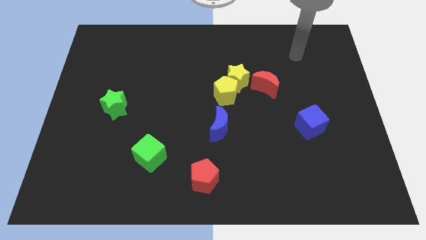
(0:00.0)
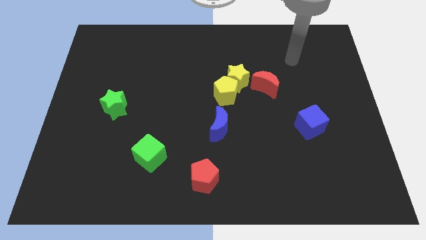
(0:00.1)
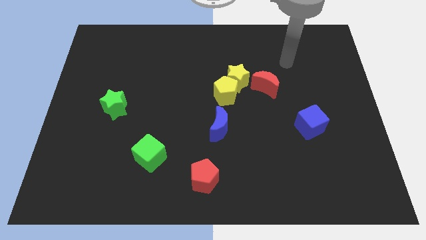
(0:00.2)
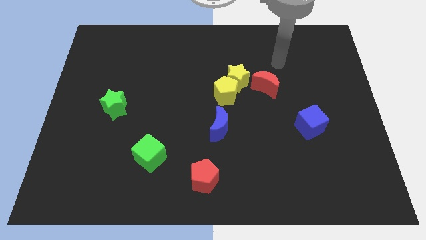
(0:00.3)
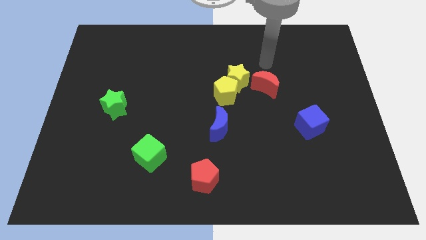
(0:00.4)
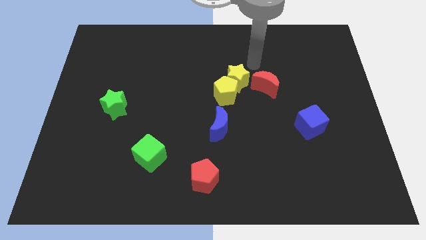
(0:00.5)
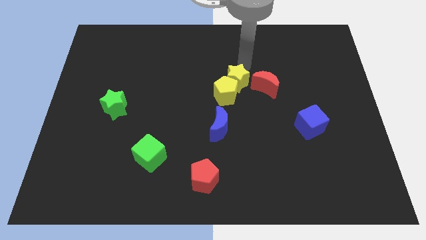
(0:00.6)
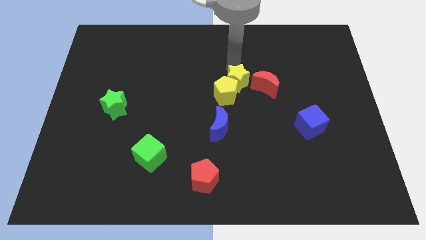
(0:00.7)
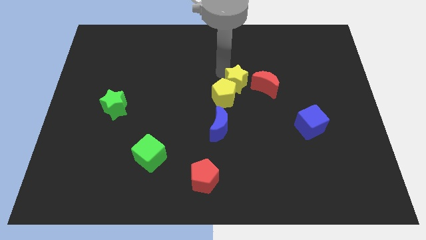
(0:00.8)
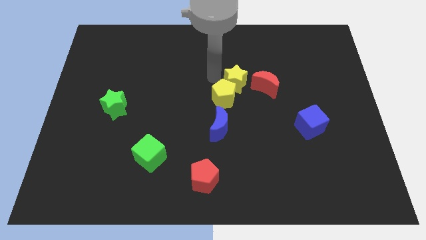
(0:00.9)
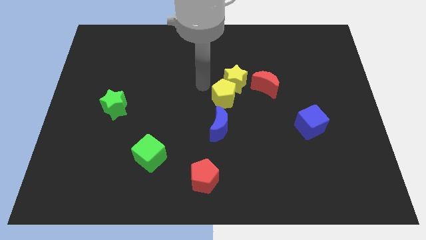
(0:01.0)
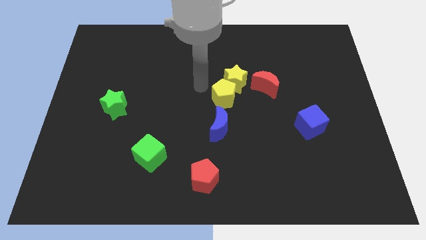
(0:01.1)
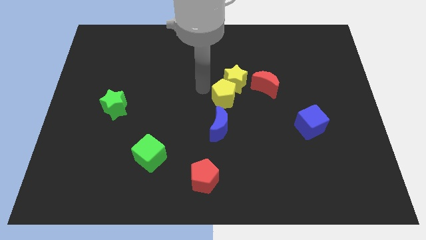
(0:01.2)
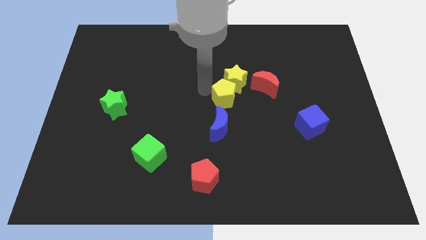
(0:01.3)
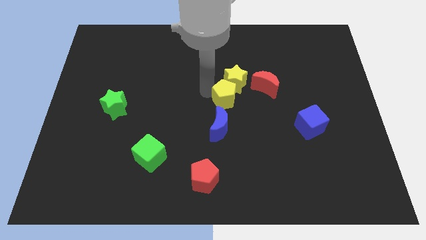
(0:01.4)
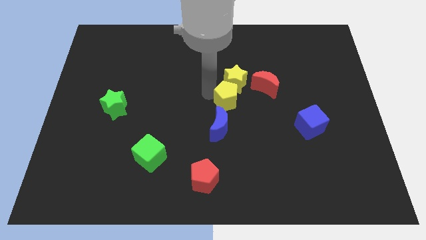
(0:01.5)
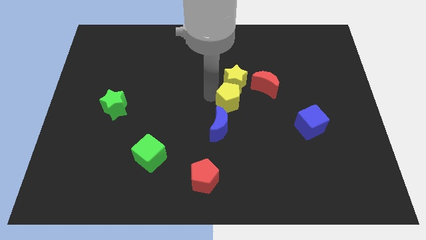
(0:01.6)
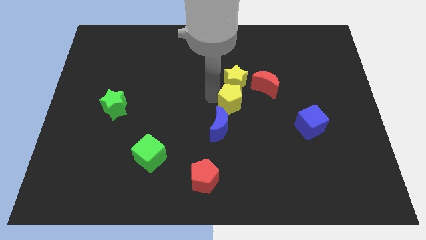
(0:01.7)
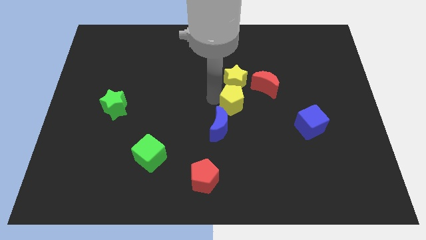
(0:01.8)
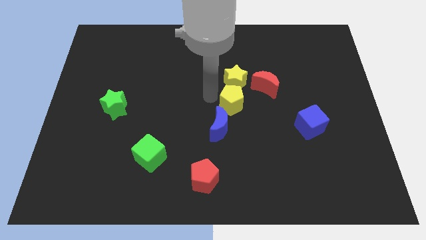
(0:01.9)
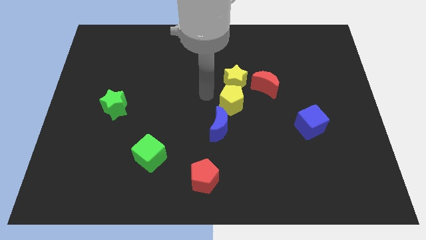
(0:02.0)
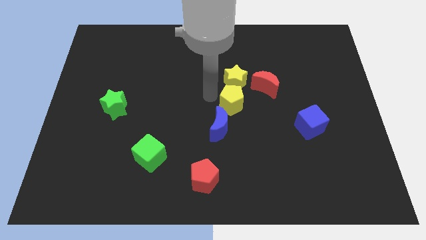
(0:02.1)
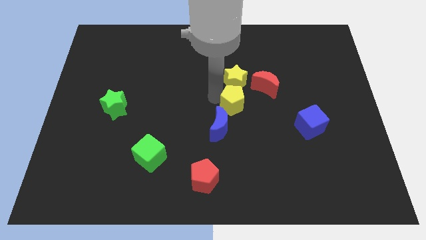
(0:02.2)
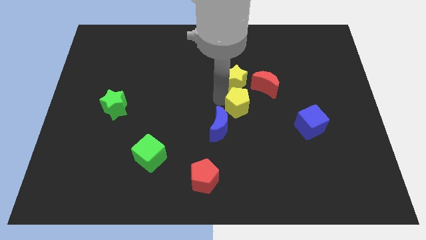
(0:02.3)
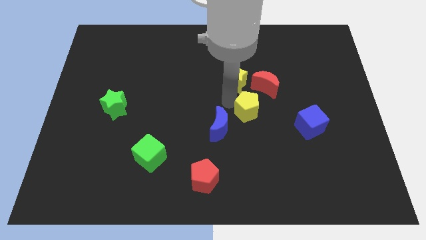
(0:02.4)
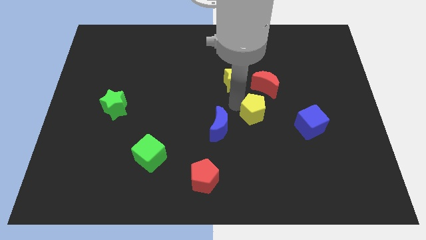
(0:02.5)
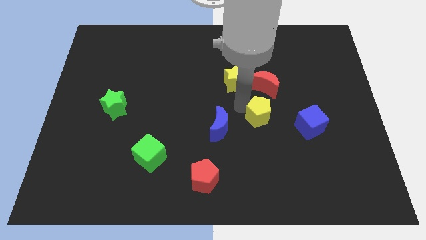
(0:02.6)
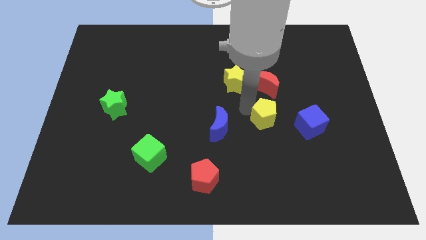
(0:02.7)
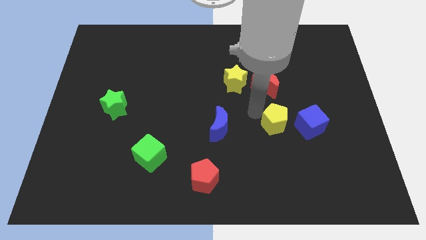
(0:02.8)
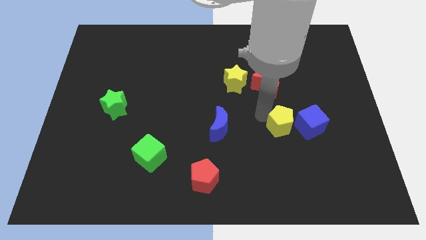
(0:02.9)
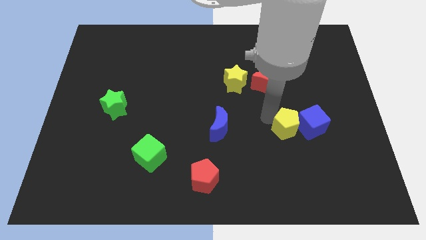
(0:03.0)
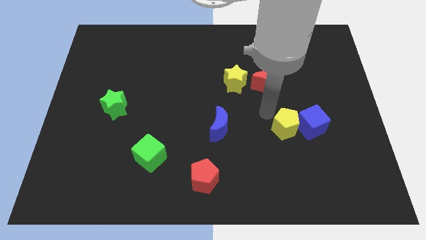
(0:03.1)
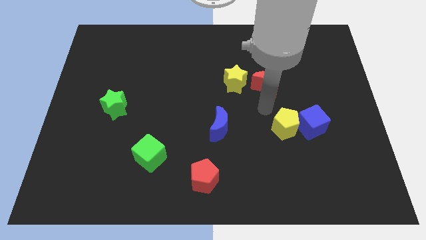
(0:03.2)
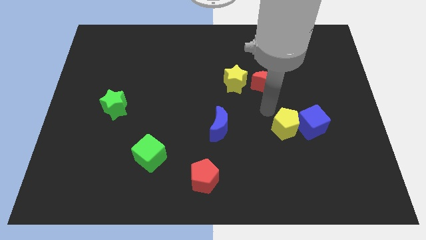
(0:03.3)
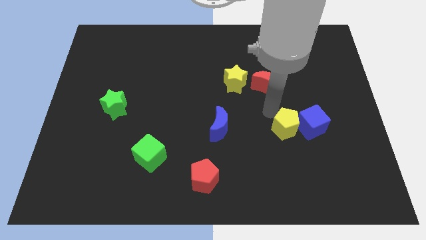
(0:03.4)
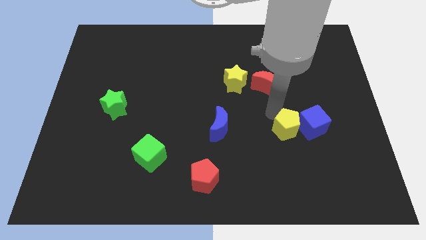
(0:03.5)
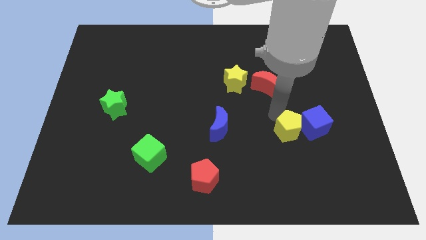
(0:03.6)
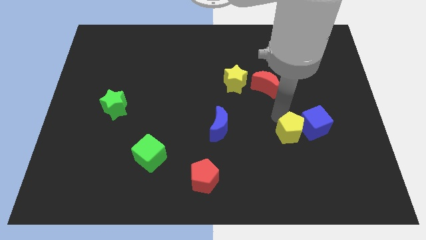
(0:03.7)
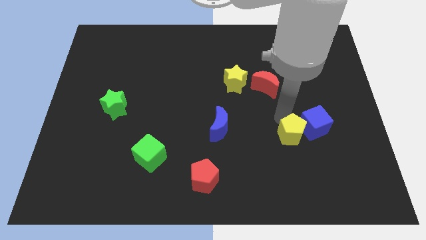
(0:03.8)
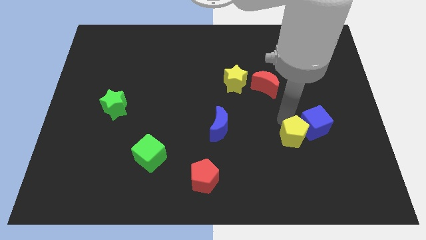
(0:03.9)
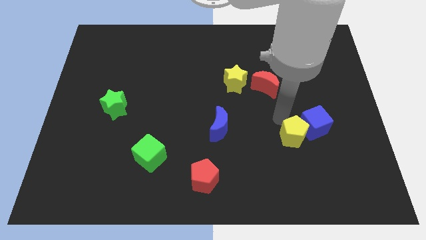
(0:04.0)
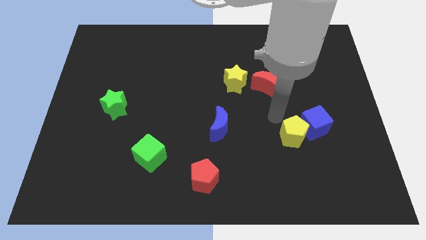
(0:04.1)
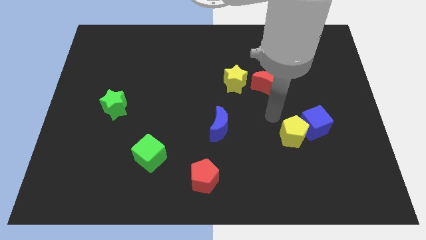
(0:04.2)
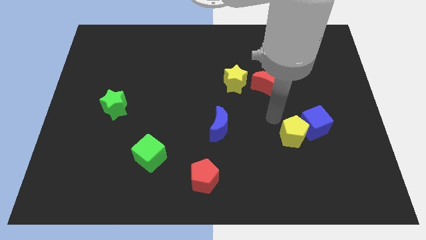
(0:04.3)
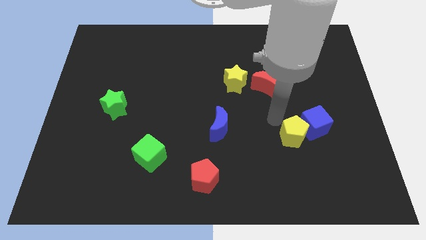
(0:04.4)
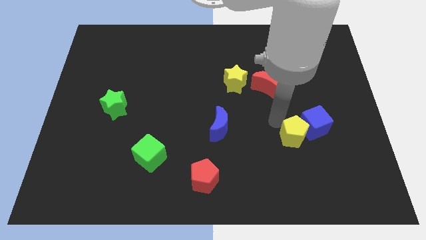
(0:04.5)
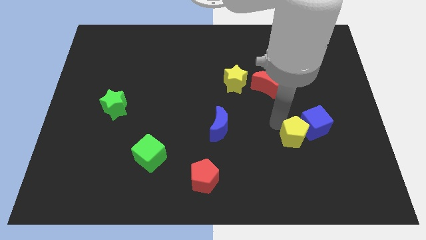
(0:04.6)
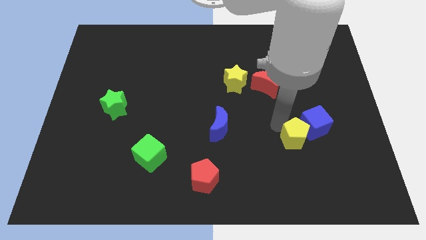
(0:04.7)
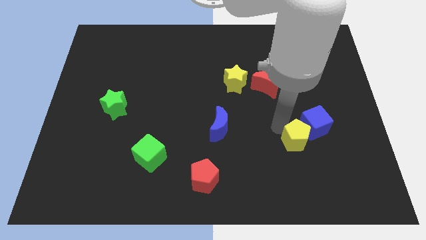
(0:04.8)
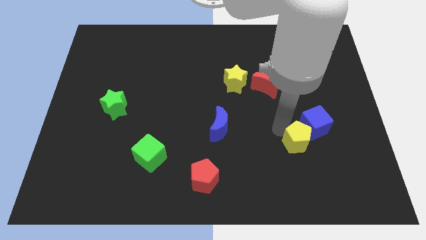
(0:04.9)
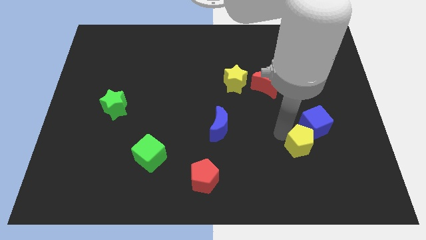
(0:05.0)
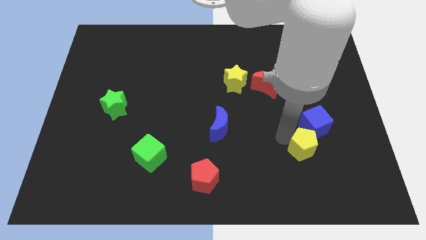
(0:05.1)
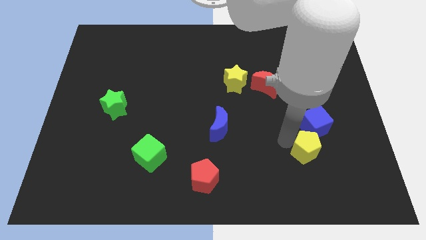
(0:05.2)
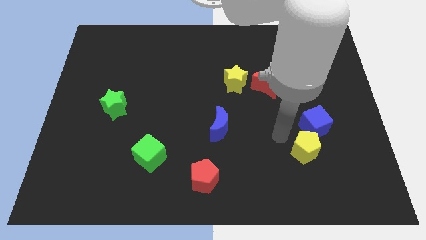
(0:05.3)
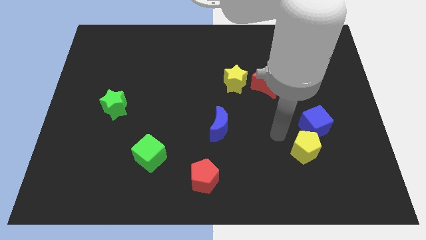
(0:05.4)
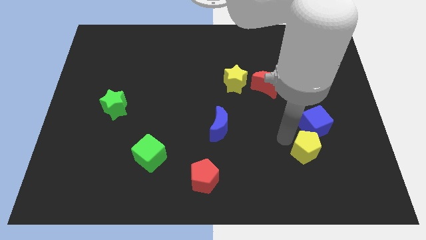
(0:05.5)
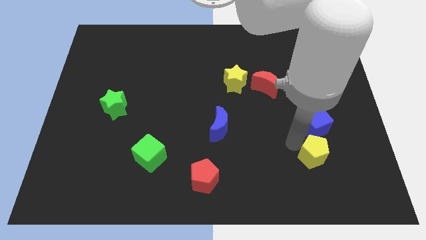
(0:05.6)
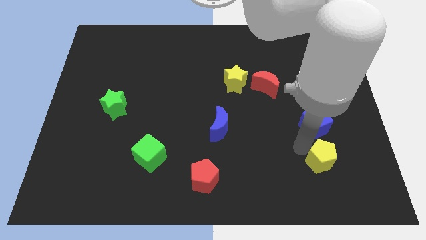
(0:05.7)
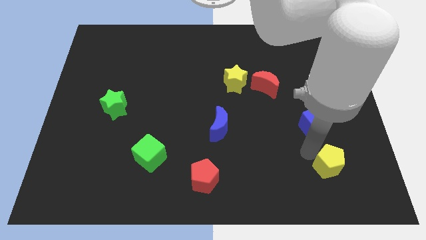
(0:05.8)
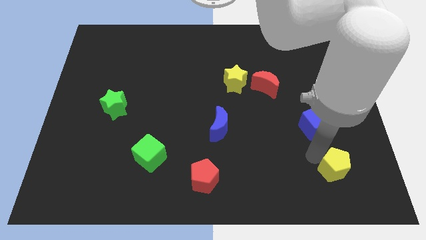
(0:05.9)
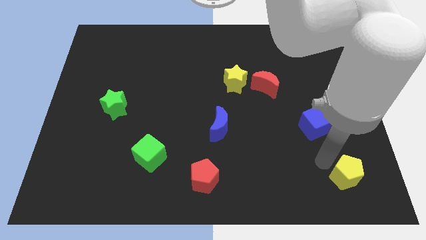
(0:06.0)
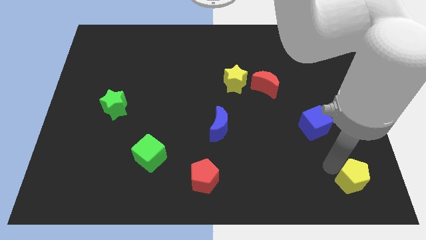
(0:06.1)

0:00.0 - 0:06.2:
put the yellow pentagon to the bottom right
